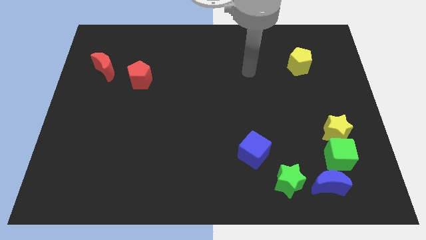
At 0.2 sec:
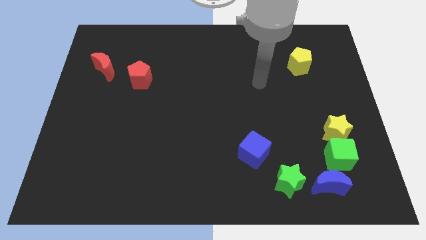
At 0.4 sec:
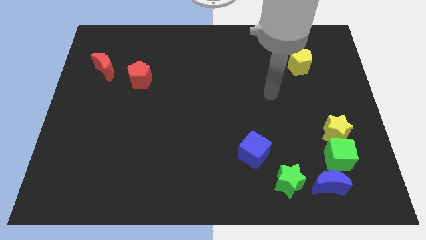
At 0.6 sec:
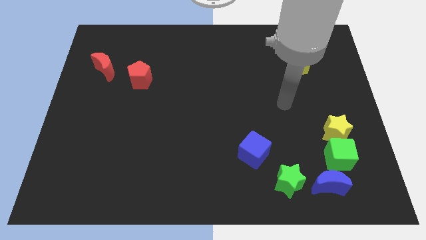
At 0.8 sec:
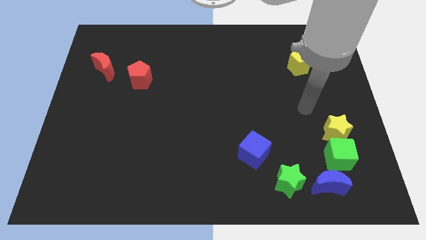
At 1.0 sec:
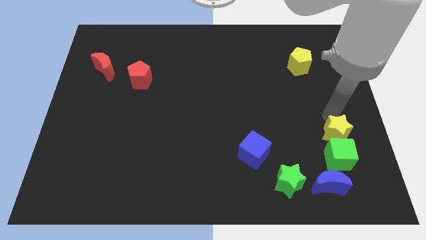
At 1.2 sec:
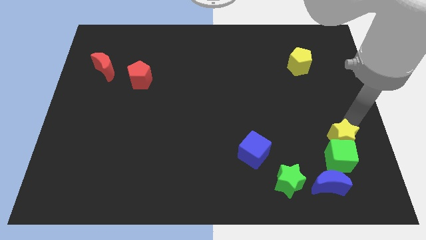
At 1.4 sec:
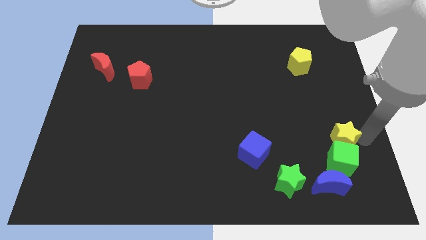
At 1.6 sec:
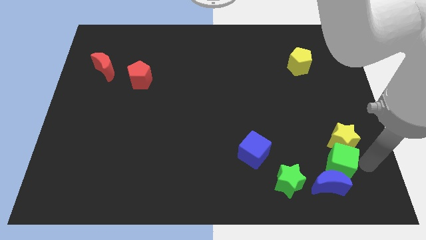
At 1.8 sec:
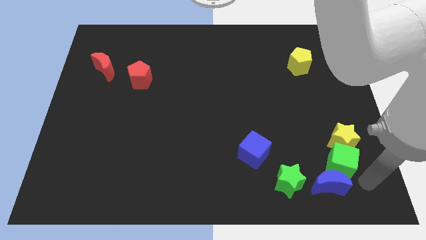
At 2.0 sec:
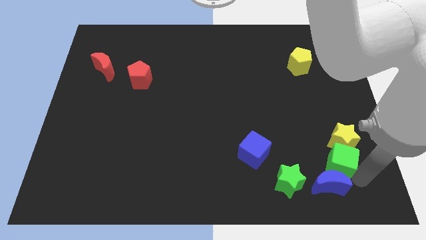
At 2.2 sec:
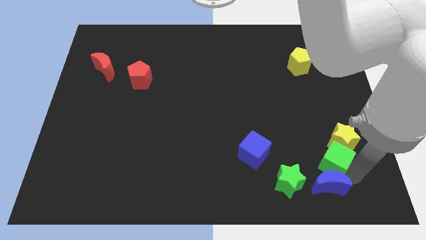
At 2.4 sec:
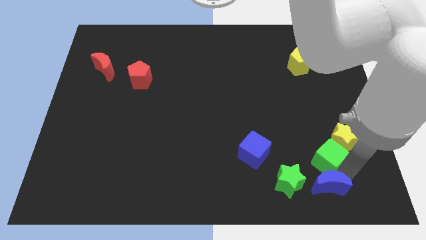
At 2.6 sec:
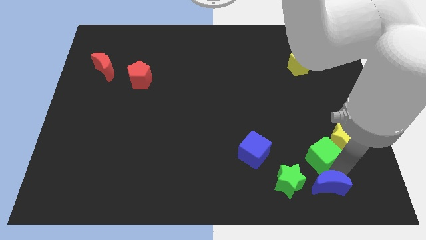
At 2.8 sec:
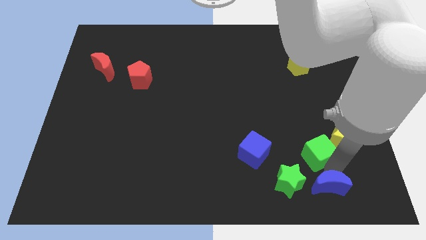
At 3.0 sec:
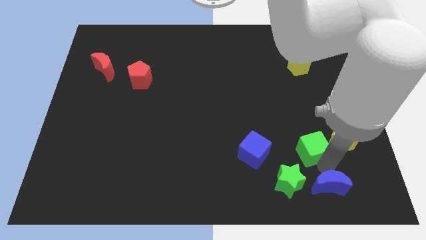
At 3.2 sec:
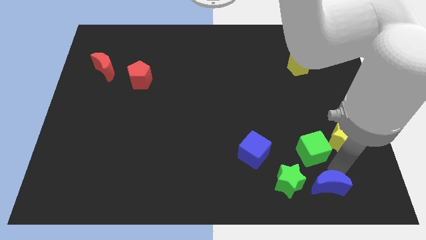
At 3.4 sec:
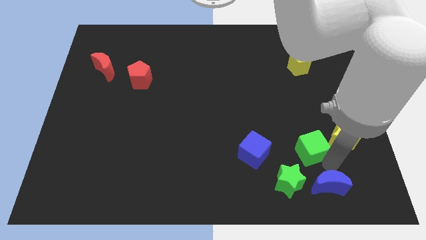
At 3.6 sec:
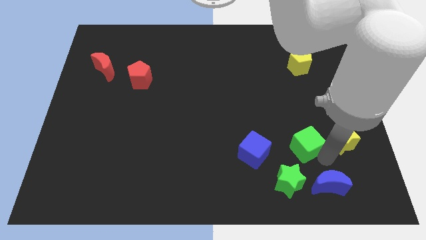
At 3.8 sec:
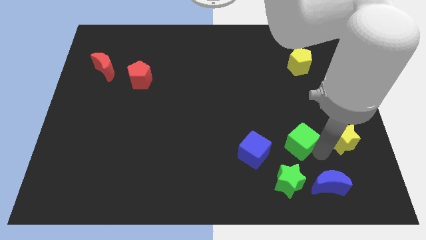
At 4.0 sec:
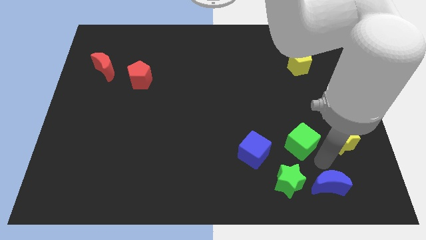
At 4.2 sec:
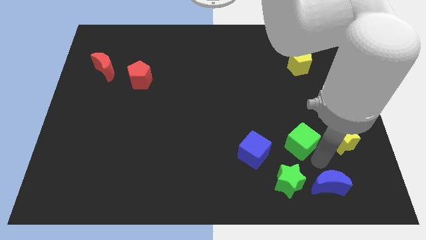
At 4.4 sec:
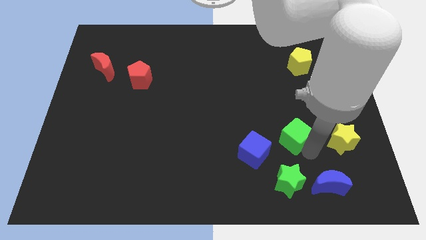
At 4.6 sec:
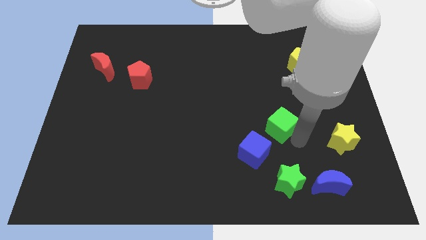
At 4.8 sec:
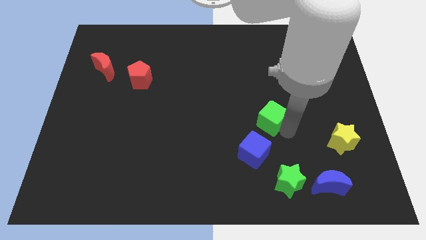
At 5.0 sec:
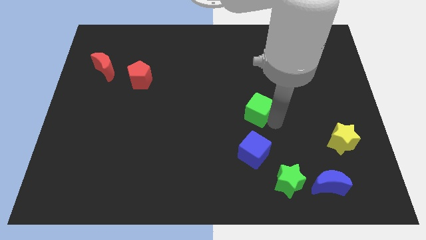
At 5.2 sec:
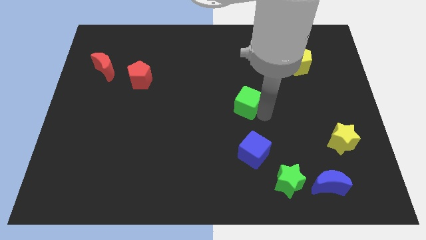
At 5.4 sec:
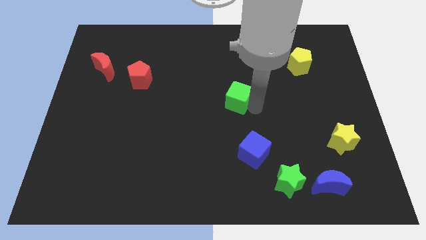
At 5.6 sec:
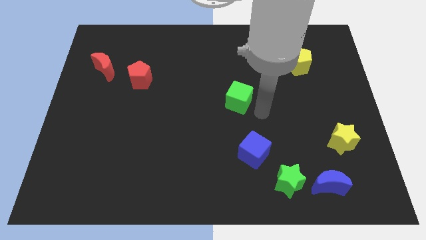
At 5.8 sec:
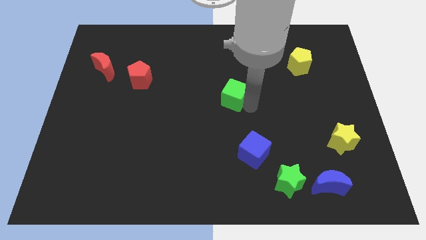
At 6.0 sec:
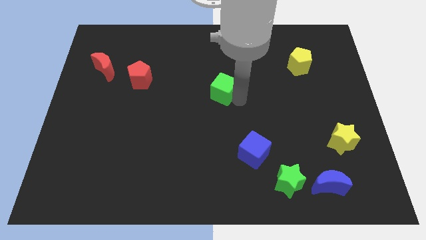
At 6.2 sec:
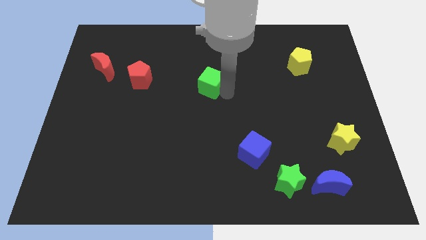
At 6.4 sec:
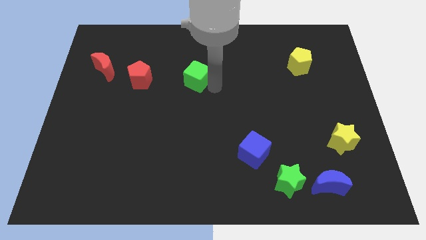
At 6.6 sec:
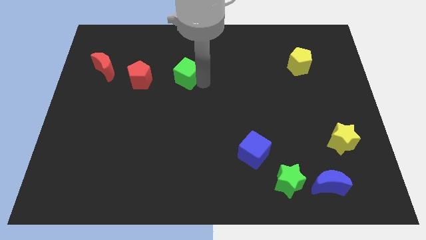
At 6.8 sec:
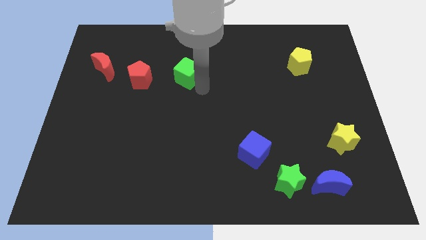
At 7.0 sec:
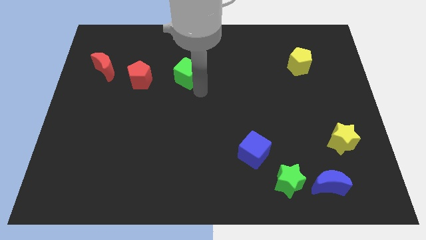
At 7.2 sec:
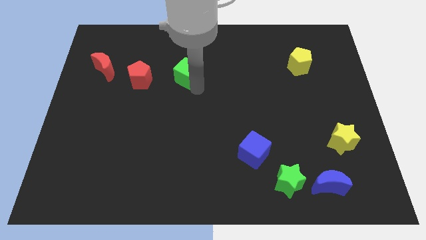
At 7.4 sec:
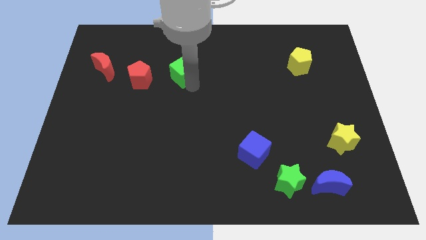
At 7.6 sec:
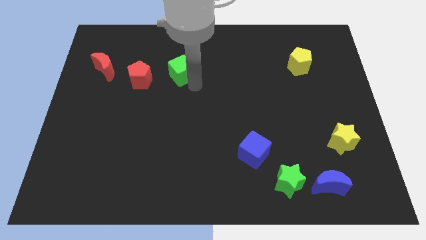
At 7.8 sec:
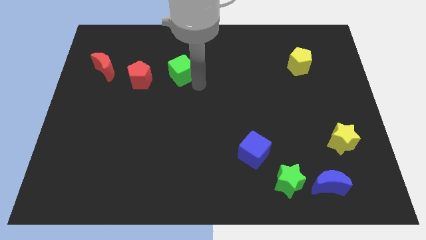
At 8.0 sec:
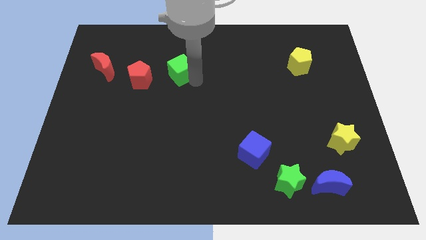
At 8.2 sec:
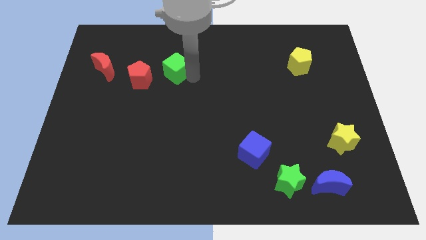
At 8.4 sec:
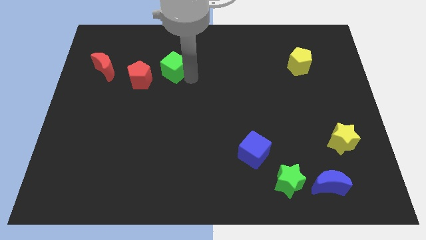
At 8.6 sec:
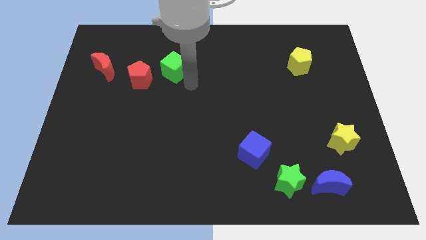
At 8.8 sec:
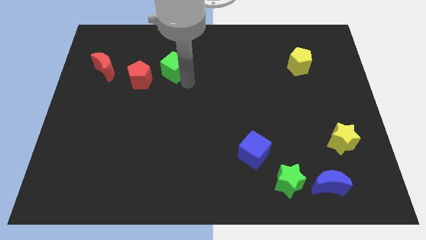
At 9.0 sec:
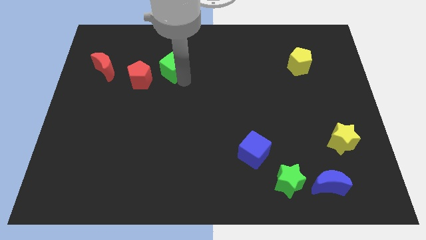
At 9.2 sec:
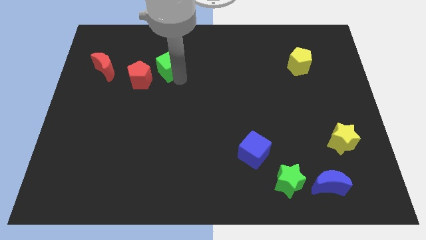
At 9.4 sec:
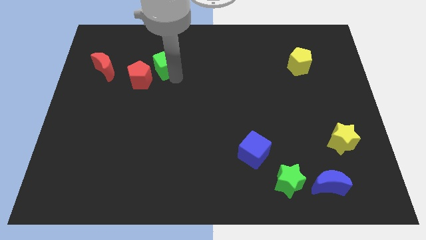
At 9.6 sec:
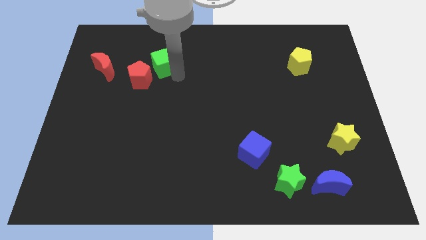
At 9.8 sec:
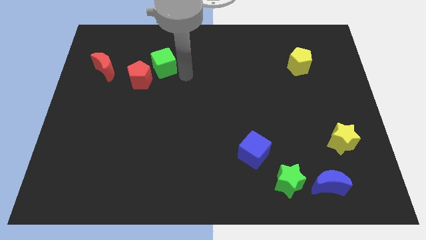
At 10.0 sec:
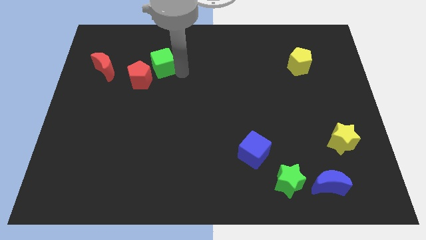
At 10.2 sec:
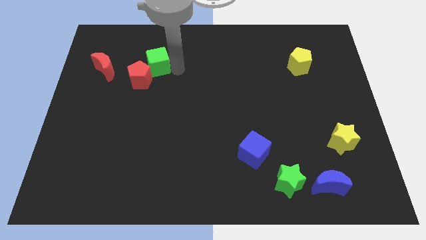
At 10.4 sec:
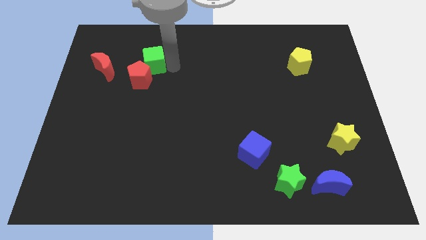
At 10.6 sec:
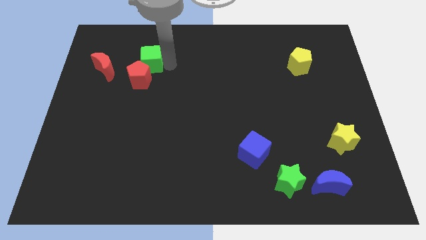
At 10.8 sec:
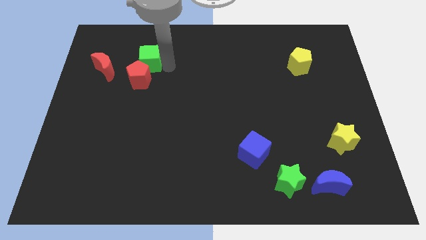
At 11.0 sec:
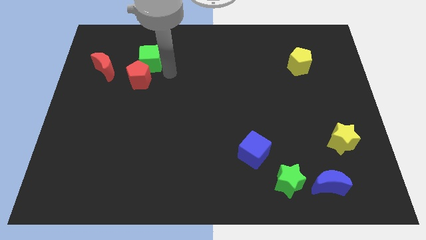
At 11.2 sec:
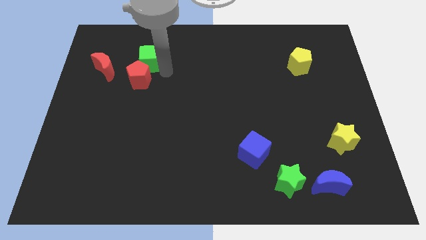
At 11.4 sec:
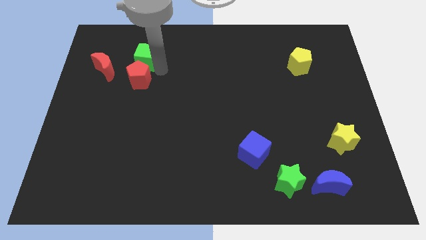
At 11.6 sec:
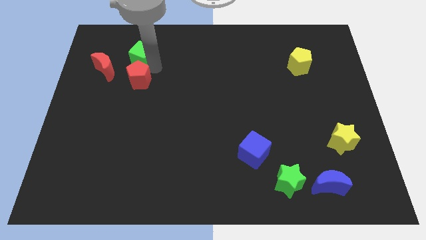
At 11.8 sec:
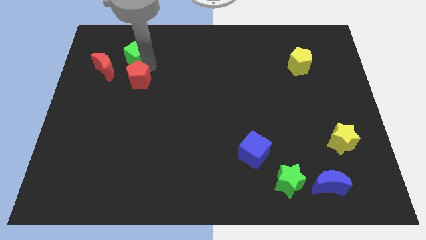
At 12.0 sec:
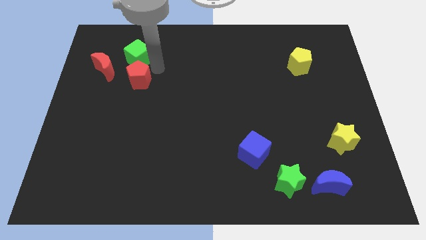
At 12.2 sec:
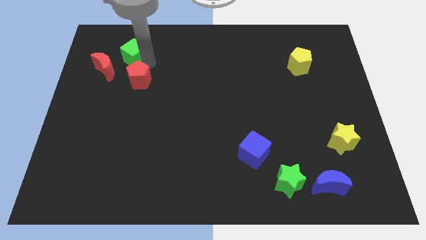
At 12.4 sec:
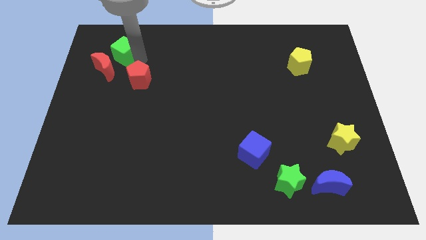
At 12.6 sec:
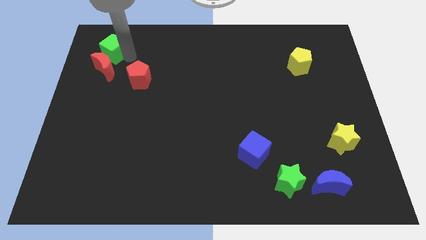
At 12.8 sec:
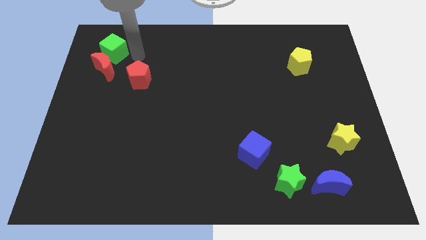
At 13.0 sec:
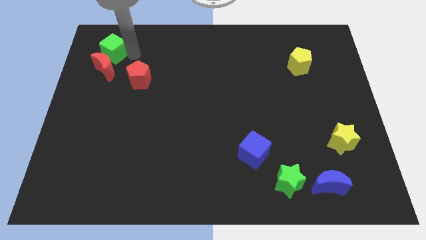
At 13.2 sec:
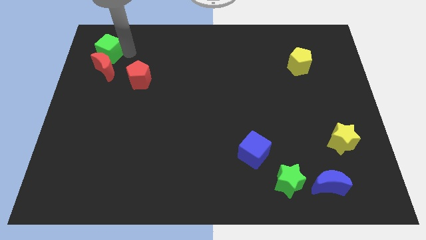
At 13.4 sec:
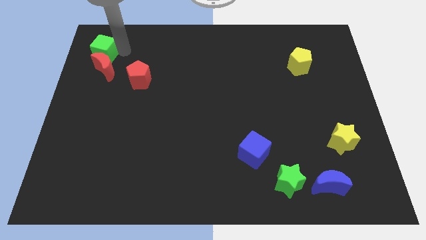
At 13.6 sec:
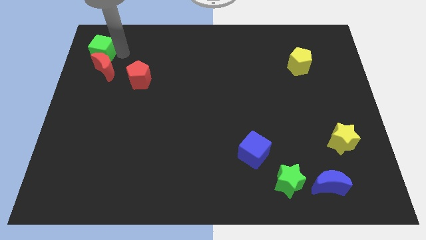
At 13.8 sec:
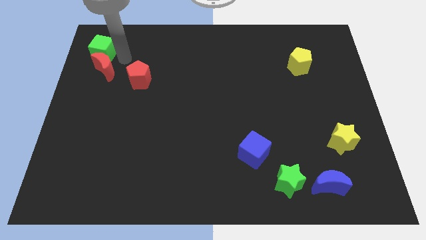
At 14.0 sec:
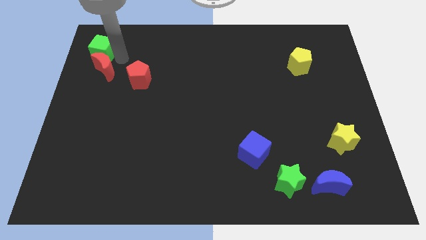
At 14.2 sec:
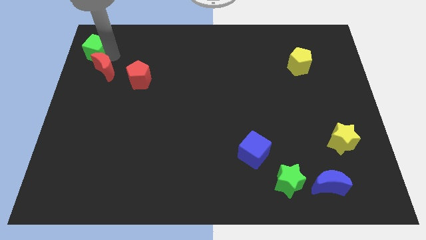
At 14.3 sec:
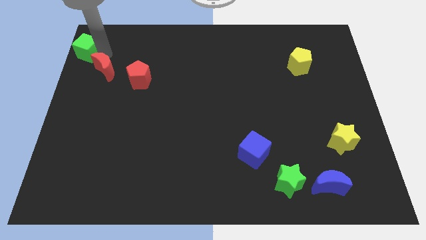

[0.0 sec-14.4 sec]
put the green cube to the upper left corner

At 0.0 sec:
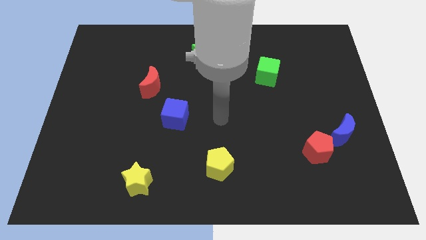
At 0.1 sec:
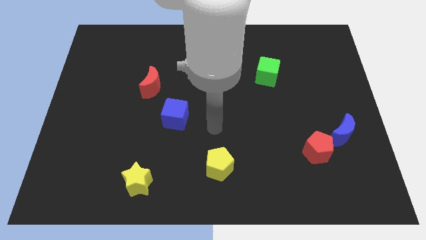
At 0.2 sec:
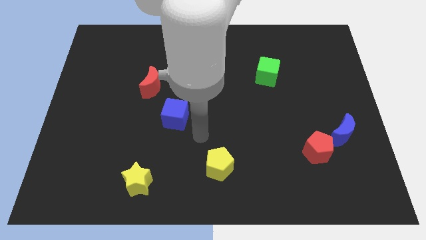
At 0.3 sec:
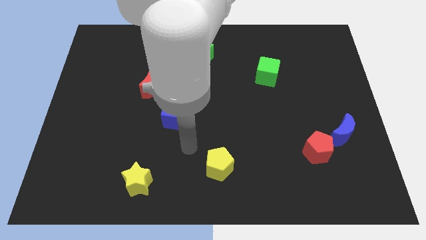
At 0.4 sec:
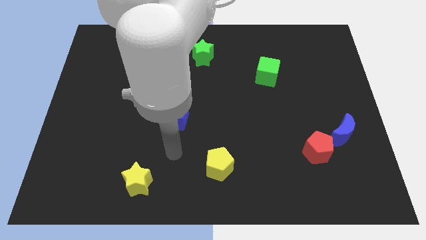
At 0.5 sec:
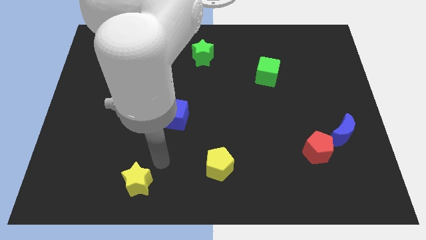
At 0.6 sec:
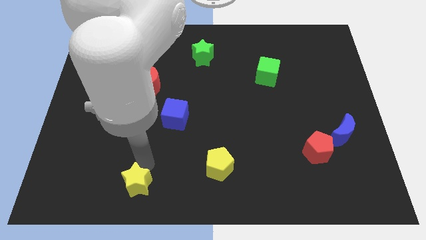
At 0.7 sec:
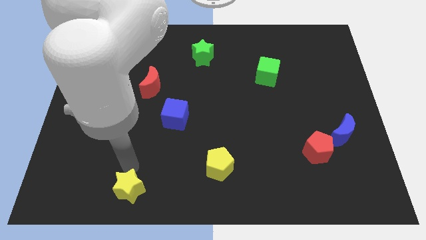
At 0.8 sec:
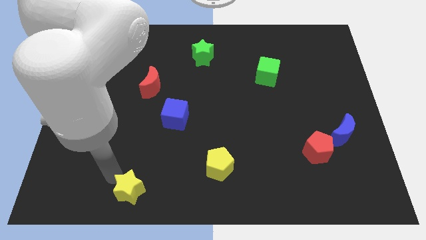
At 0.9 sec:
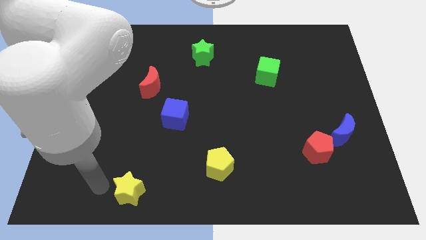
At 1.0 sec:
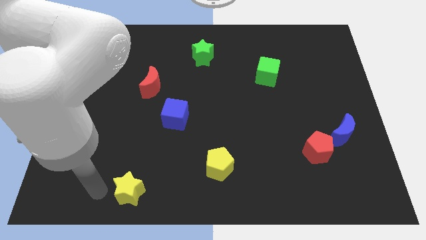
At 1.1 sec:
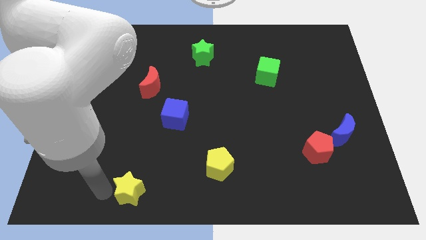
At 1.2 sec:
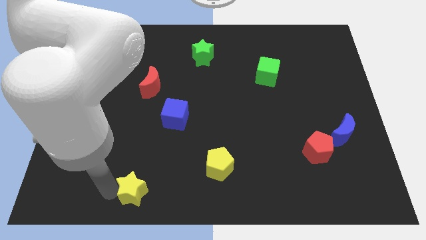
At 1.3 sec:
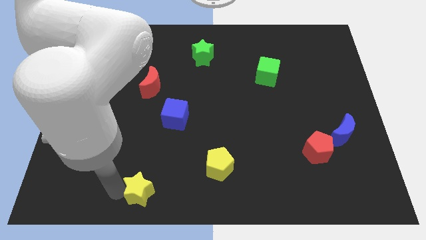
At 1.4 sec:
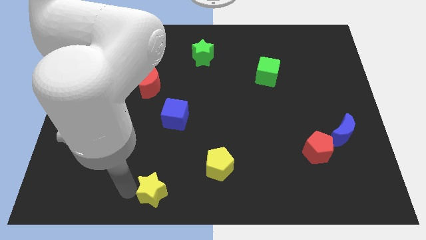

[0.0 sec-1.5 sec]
push the yellow star to the bottom
